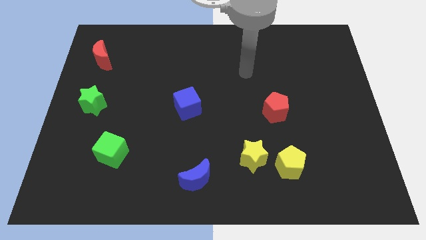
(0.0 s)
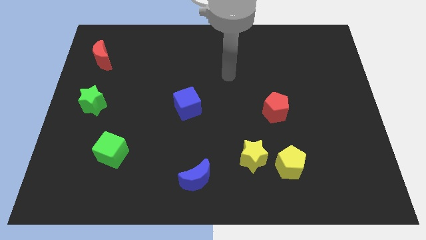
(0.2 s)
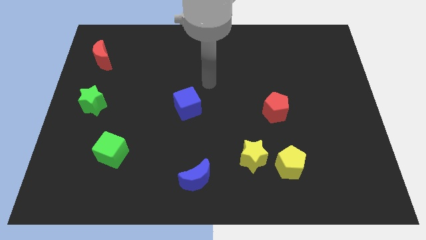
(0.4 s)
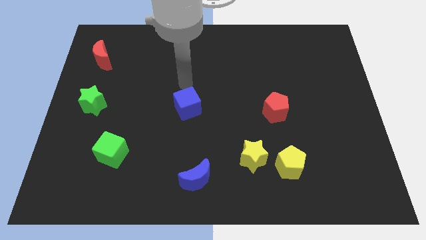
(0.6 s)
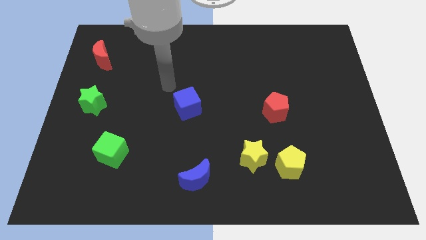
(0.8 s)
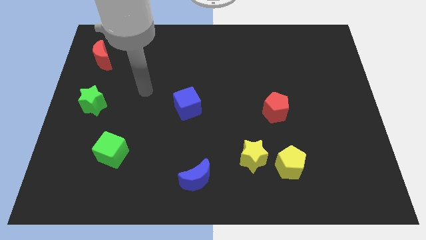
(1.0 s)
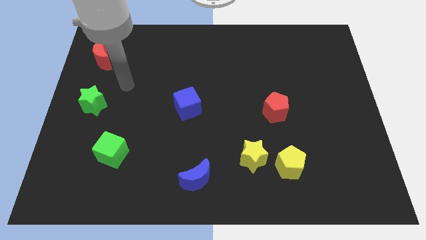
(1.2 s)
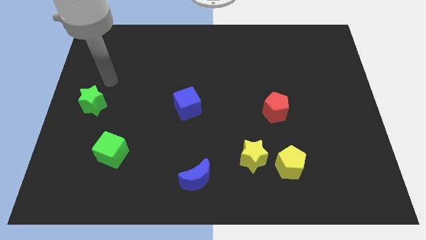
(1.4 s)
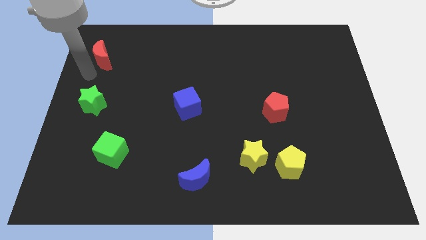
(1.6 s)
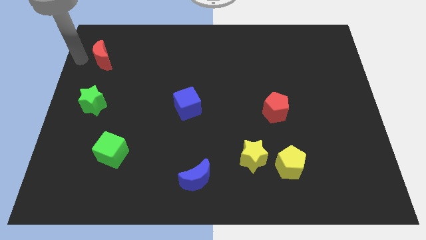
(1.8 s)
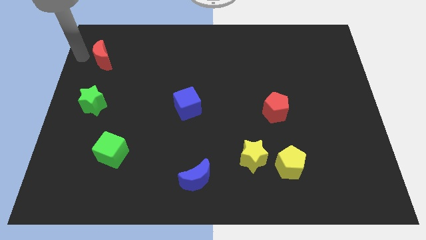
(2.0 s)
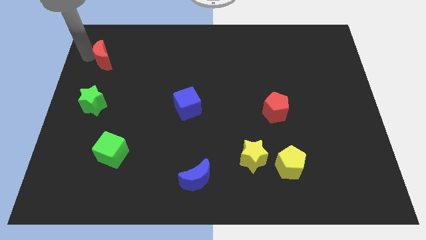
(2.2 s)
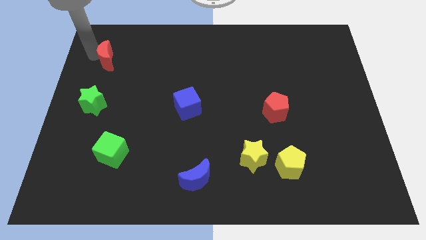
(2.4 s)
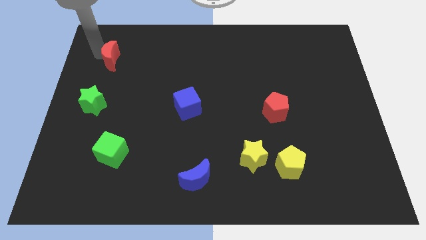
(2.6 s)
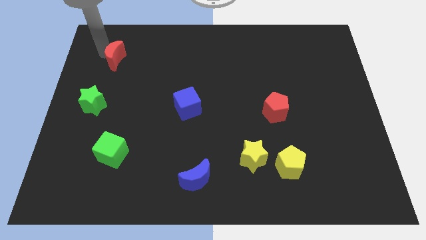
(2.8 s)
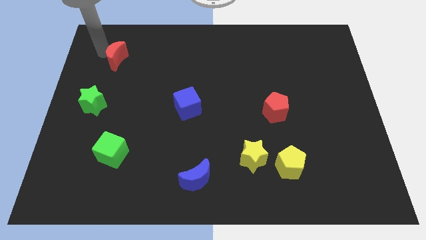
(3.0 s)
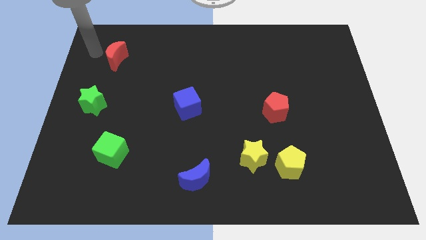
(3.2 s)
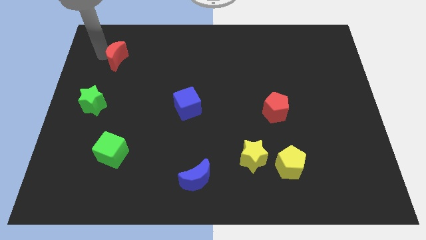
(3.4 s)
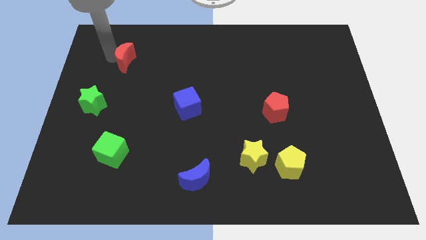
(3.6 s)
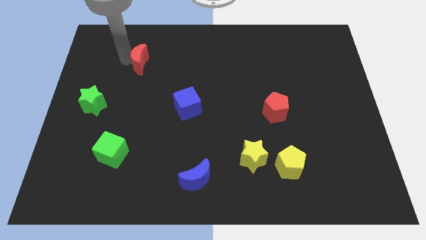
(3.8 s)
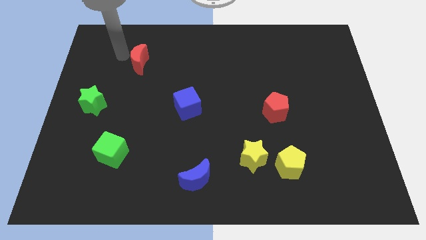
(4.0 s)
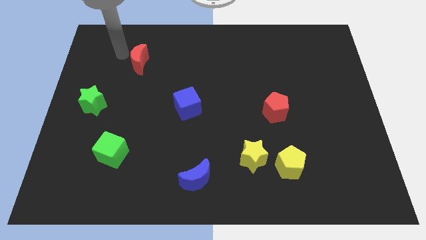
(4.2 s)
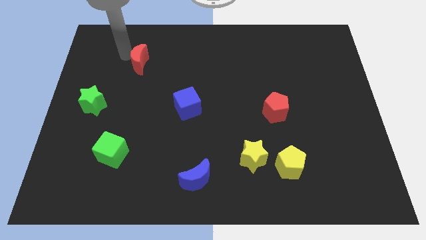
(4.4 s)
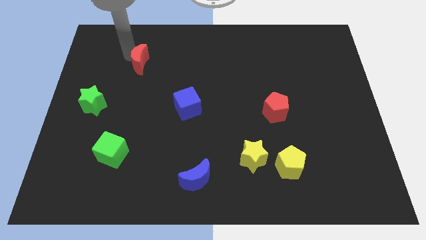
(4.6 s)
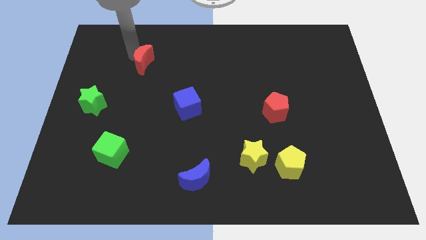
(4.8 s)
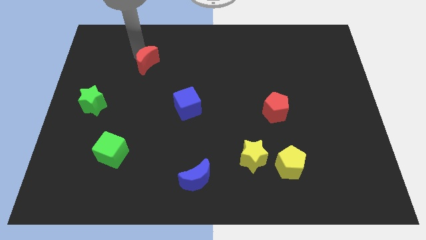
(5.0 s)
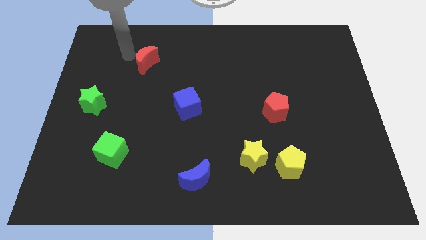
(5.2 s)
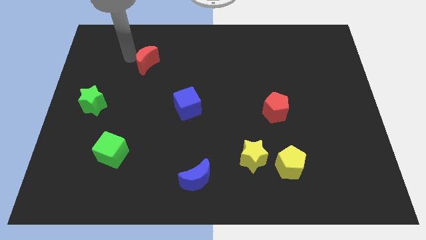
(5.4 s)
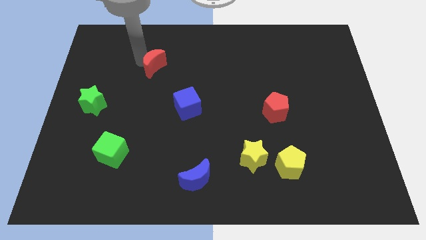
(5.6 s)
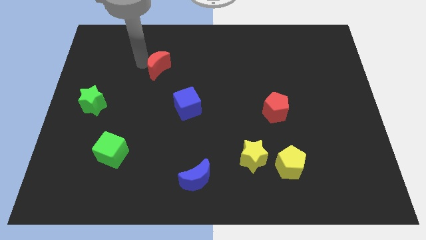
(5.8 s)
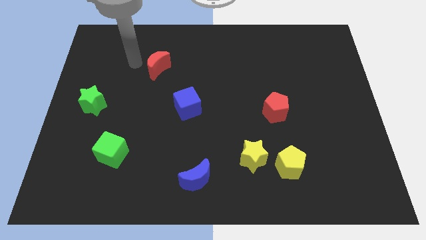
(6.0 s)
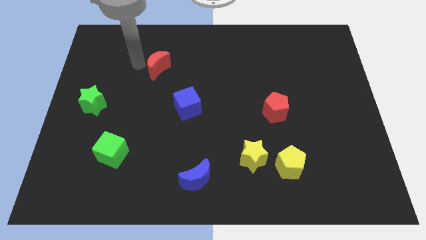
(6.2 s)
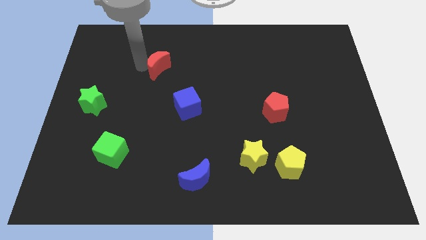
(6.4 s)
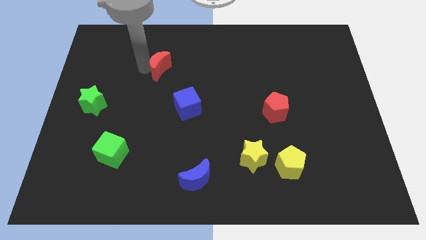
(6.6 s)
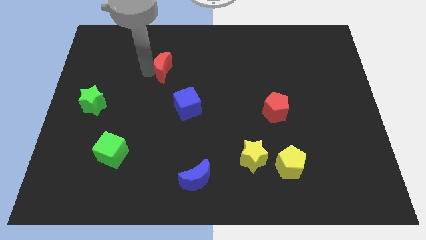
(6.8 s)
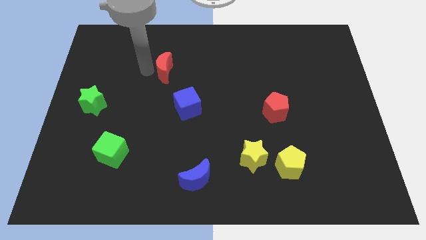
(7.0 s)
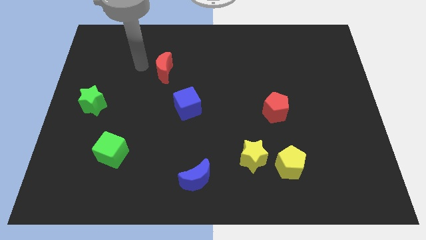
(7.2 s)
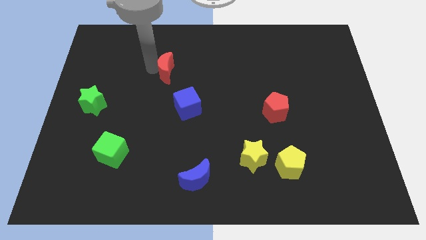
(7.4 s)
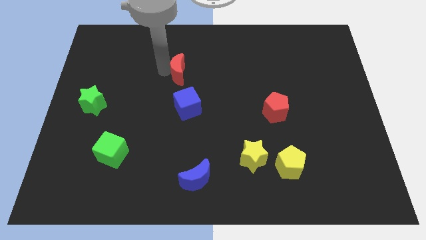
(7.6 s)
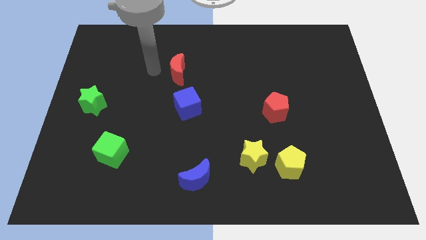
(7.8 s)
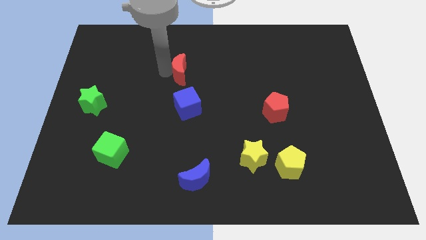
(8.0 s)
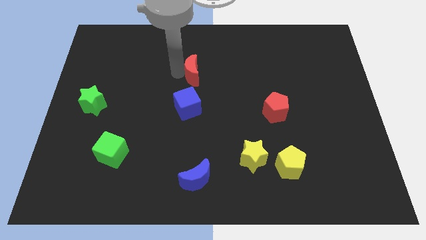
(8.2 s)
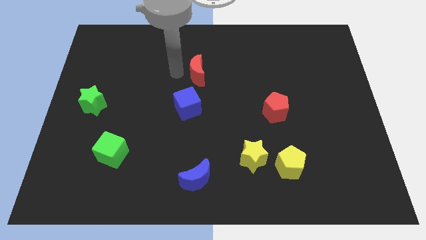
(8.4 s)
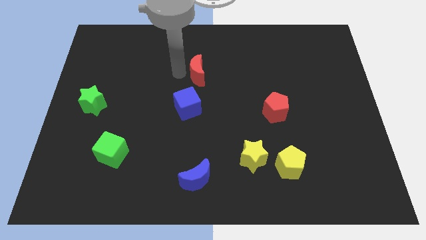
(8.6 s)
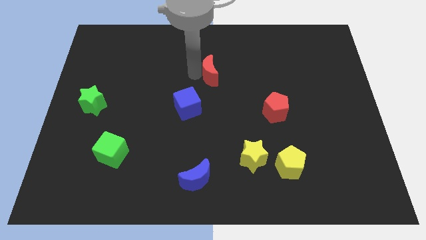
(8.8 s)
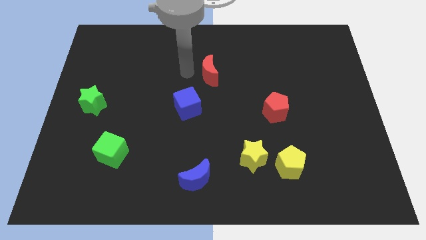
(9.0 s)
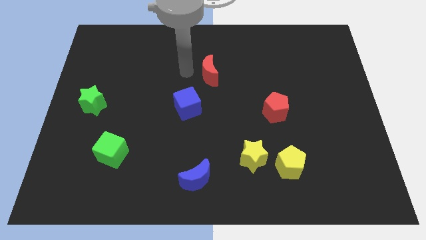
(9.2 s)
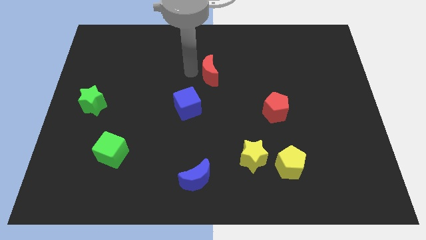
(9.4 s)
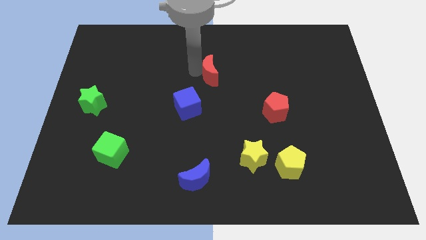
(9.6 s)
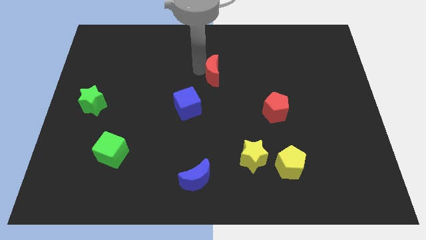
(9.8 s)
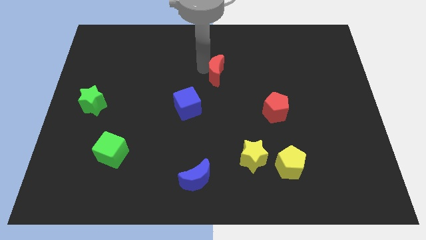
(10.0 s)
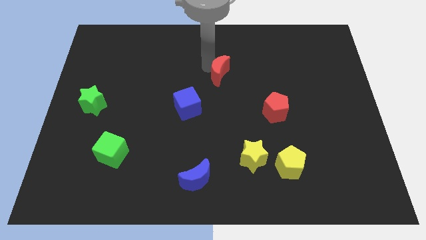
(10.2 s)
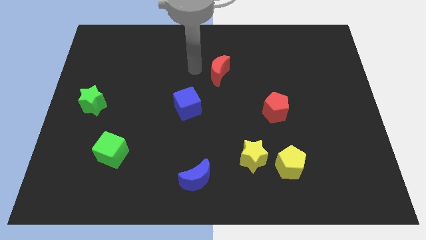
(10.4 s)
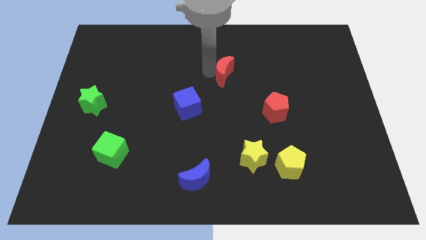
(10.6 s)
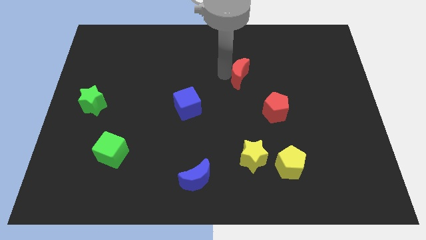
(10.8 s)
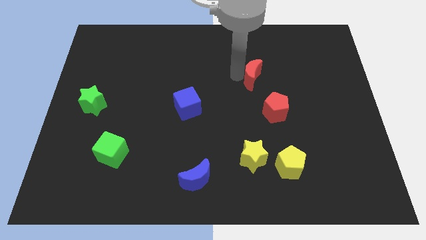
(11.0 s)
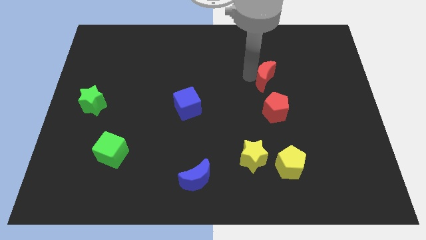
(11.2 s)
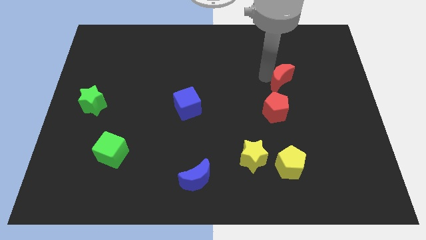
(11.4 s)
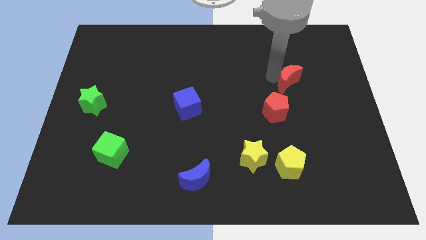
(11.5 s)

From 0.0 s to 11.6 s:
push the red moon to the top right of the red pentagon

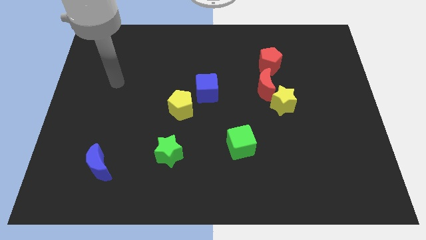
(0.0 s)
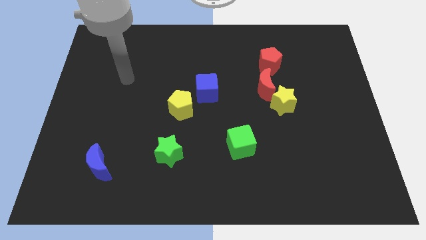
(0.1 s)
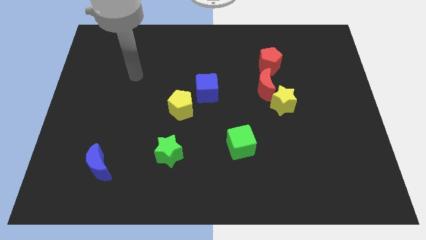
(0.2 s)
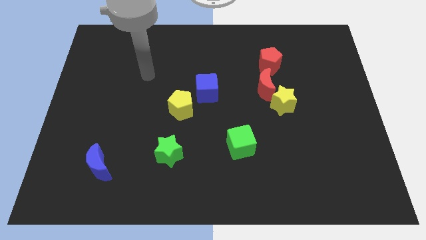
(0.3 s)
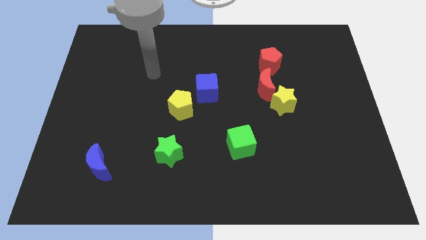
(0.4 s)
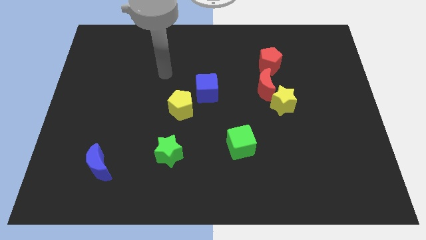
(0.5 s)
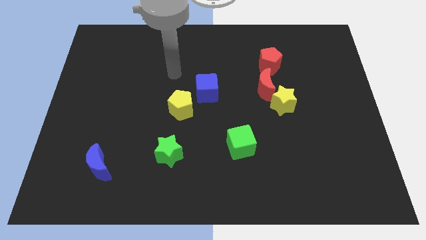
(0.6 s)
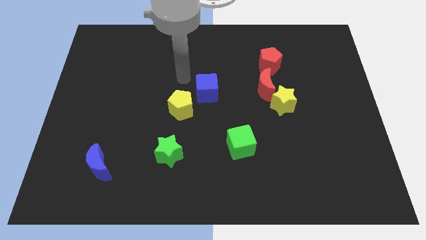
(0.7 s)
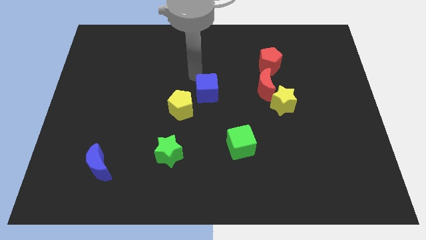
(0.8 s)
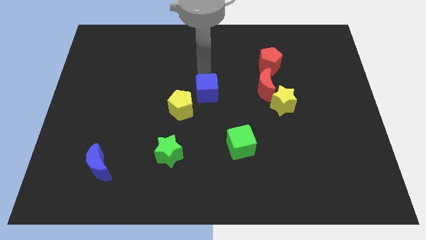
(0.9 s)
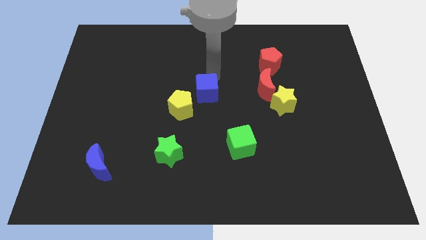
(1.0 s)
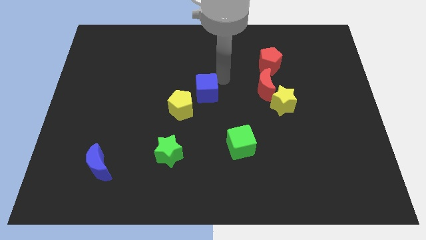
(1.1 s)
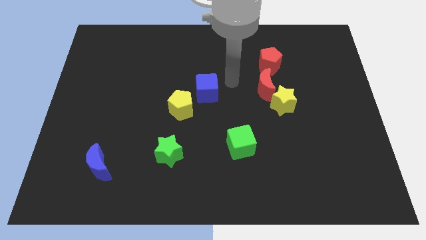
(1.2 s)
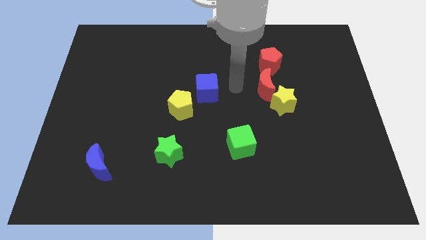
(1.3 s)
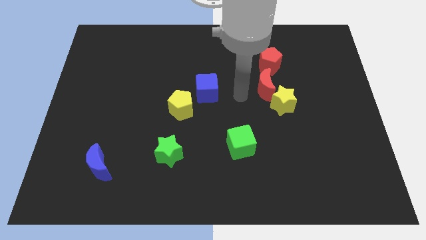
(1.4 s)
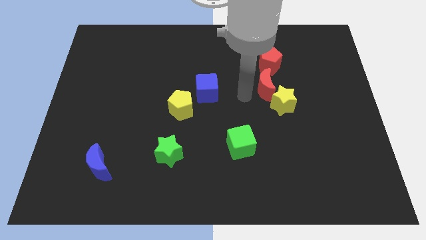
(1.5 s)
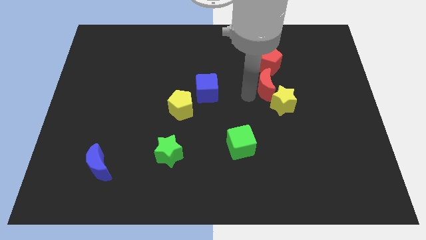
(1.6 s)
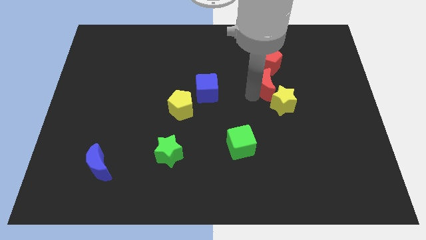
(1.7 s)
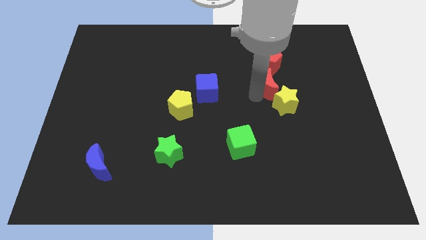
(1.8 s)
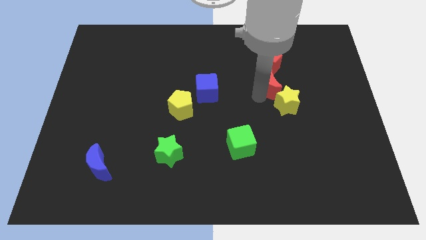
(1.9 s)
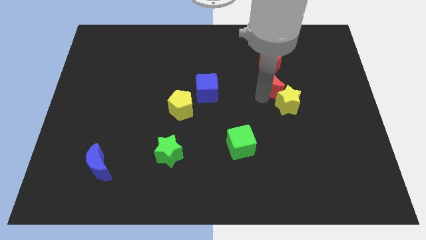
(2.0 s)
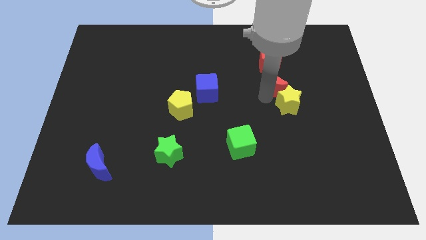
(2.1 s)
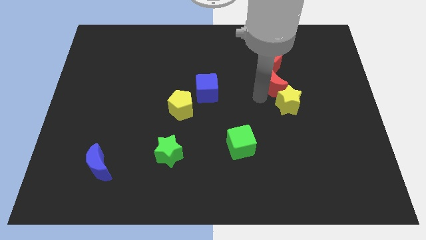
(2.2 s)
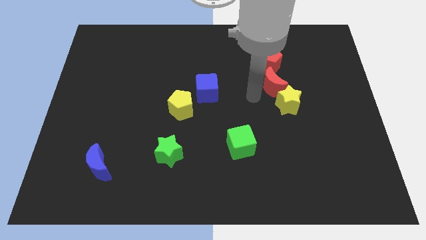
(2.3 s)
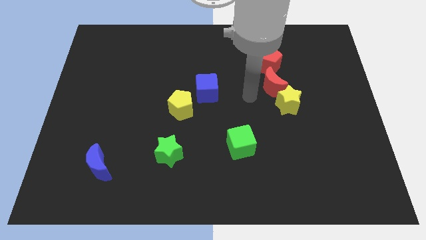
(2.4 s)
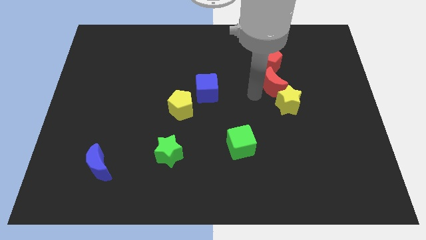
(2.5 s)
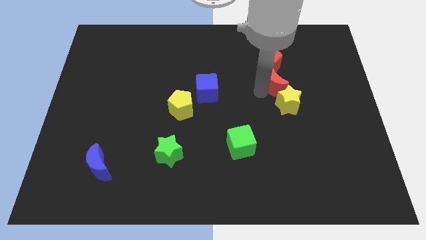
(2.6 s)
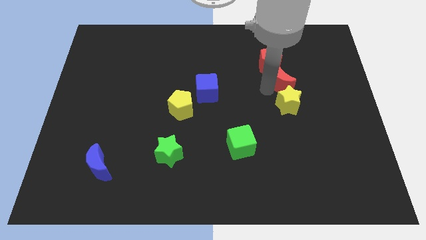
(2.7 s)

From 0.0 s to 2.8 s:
put the red moon to the bottom right of the red pentagon
